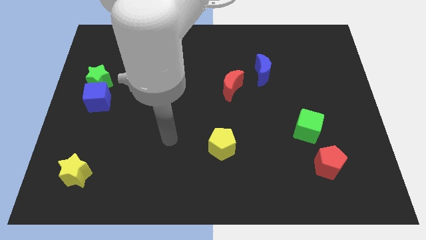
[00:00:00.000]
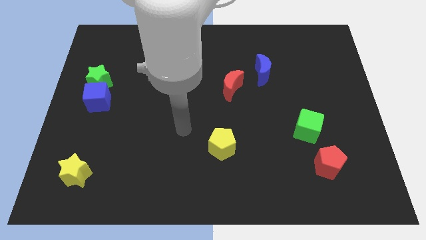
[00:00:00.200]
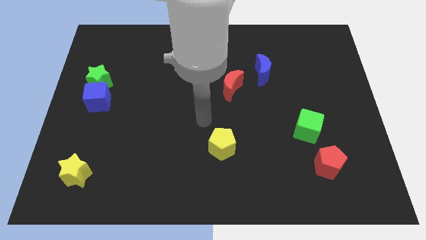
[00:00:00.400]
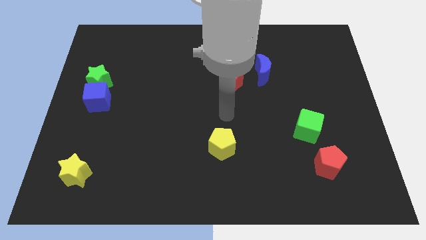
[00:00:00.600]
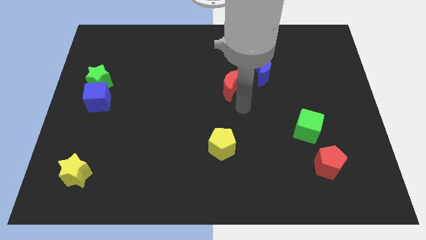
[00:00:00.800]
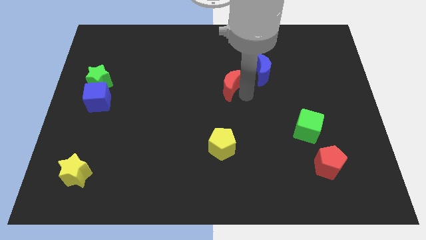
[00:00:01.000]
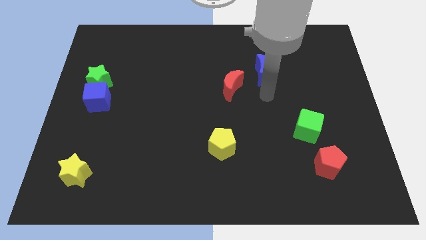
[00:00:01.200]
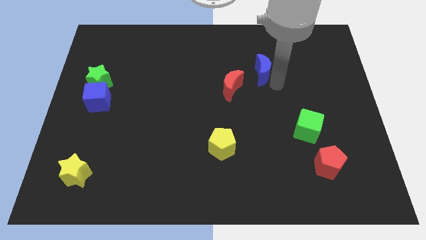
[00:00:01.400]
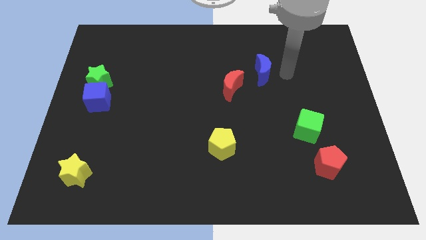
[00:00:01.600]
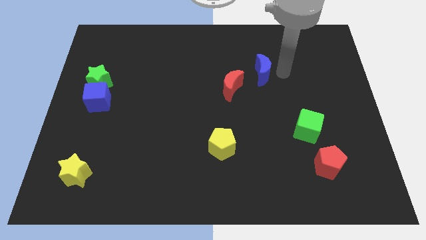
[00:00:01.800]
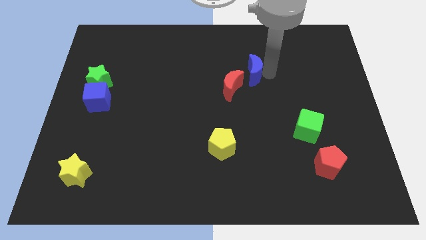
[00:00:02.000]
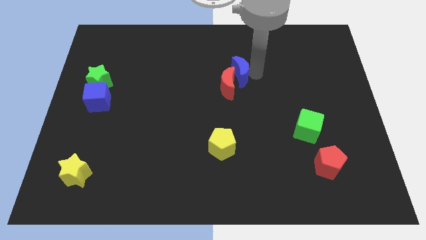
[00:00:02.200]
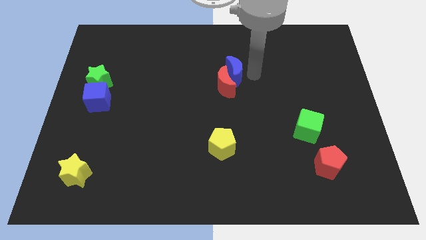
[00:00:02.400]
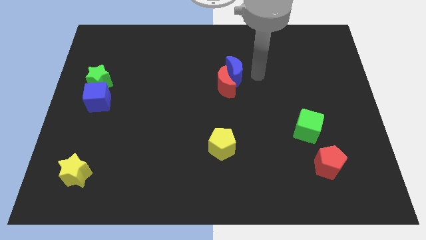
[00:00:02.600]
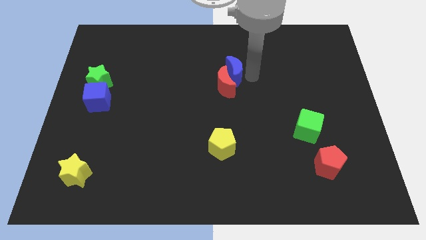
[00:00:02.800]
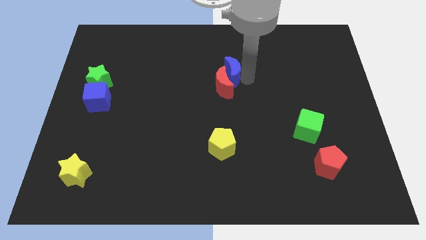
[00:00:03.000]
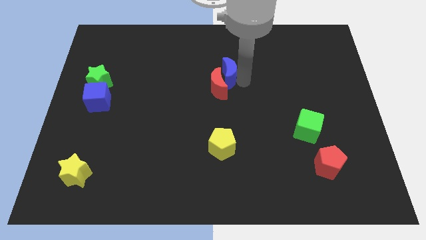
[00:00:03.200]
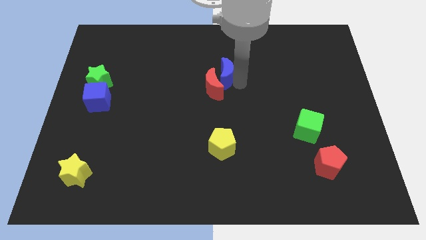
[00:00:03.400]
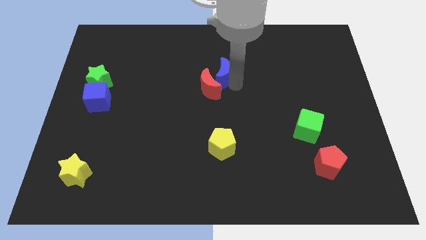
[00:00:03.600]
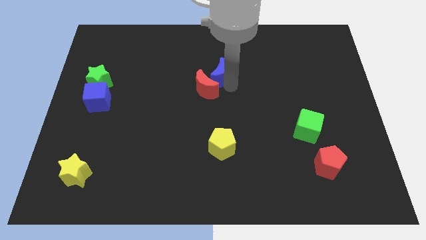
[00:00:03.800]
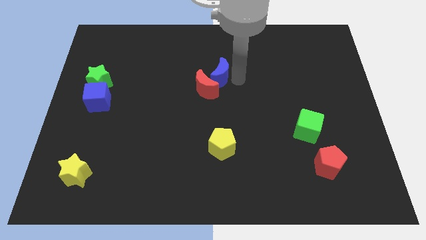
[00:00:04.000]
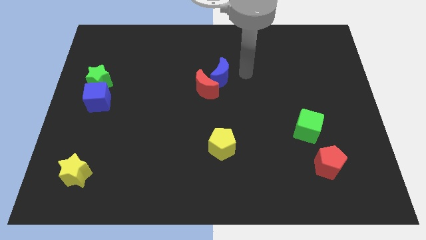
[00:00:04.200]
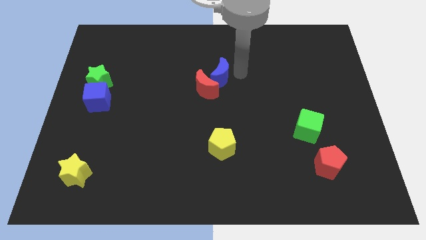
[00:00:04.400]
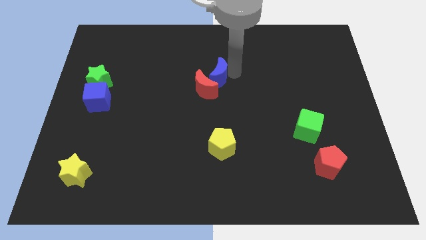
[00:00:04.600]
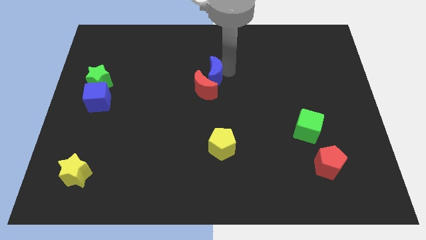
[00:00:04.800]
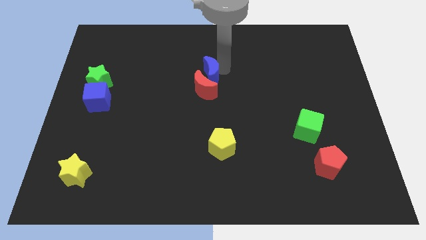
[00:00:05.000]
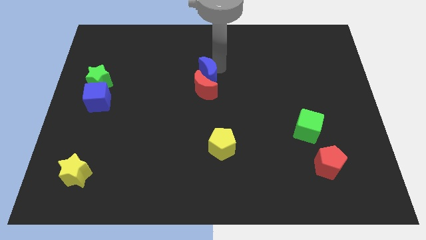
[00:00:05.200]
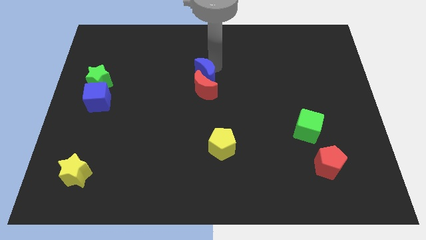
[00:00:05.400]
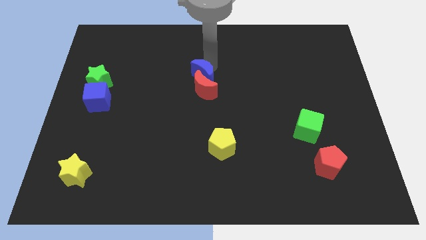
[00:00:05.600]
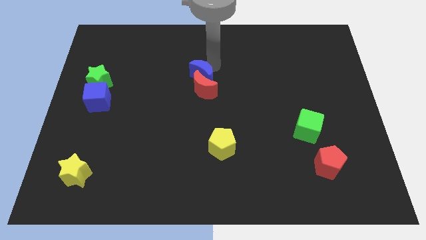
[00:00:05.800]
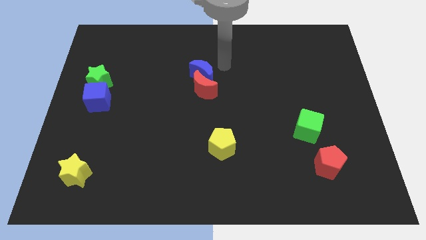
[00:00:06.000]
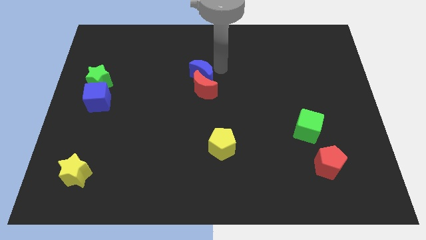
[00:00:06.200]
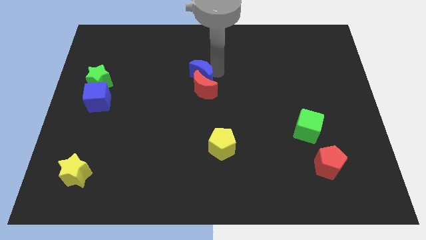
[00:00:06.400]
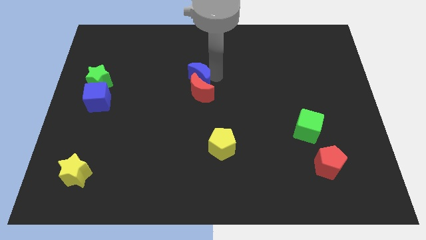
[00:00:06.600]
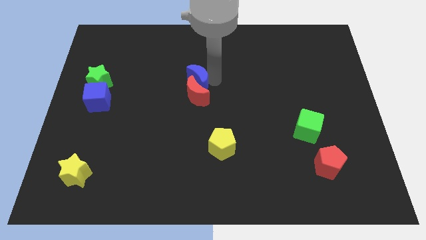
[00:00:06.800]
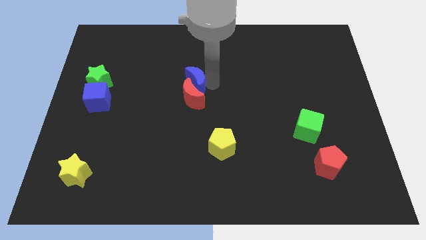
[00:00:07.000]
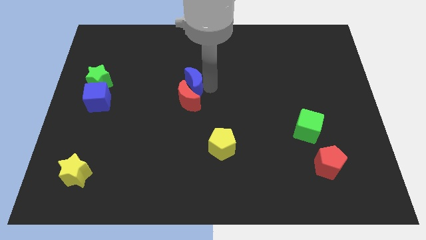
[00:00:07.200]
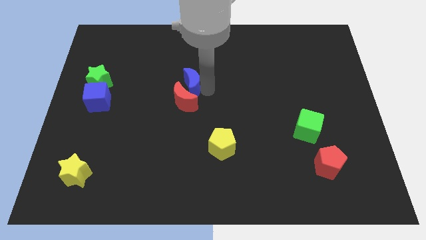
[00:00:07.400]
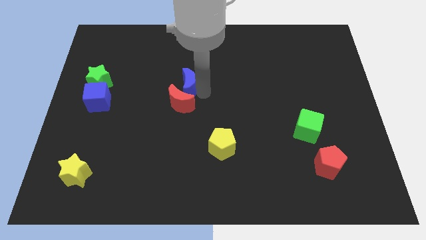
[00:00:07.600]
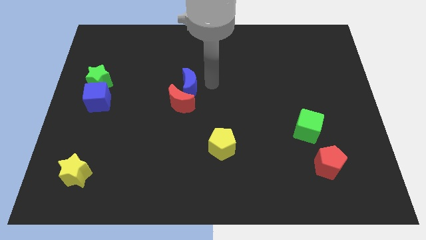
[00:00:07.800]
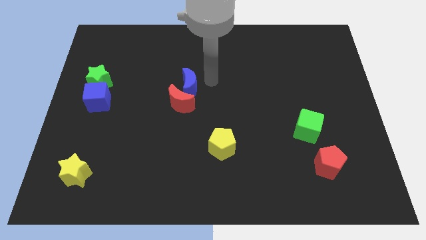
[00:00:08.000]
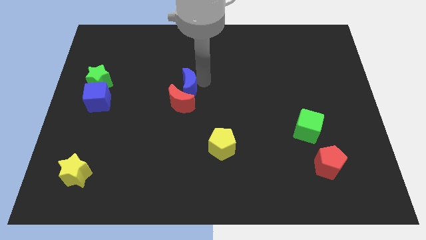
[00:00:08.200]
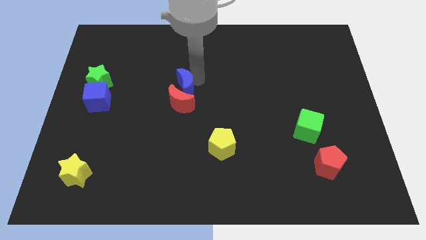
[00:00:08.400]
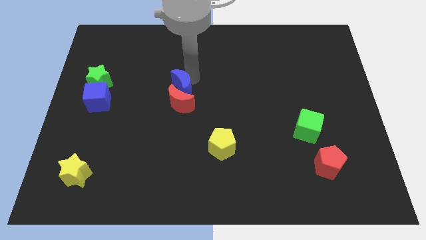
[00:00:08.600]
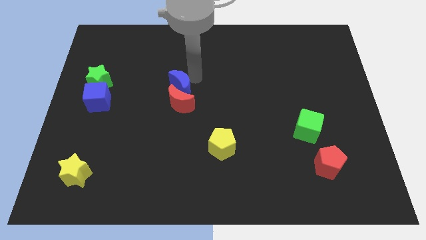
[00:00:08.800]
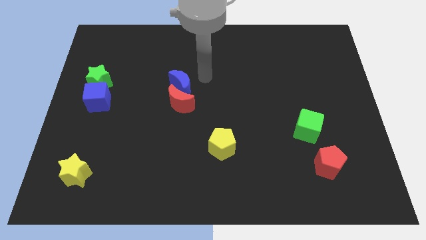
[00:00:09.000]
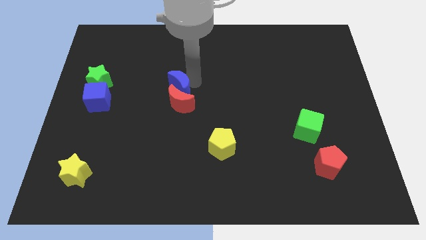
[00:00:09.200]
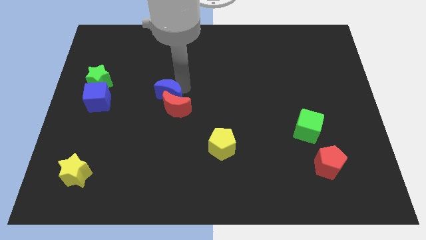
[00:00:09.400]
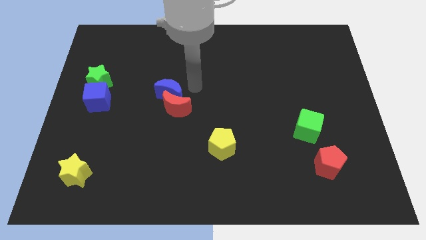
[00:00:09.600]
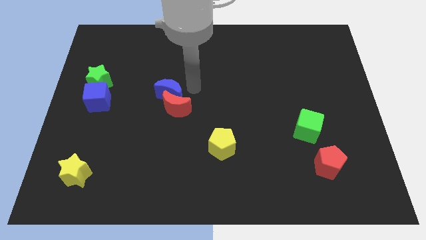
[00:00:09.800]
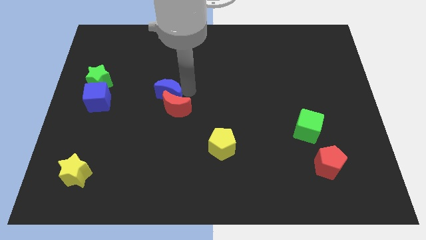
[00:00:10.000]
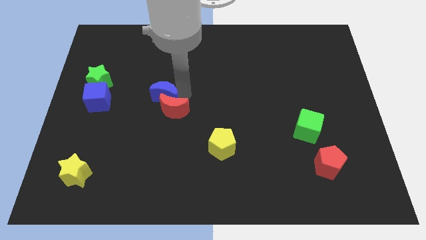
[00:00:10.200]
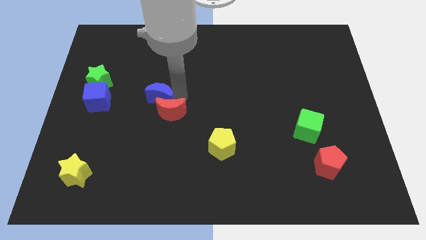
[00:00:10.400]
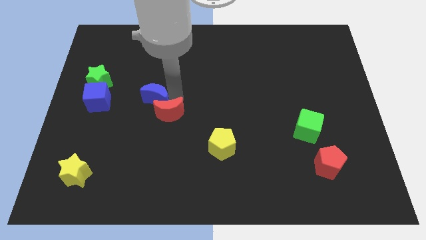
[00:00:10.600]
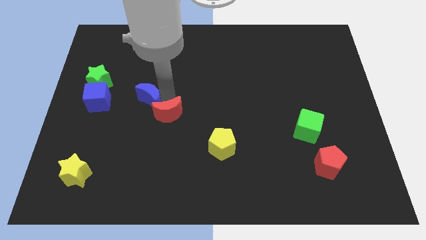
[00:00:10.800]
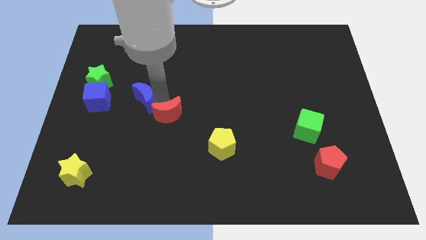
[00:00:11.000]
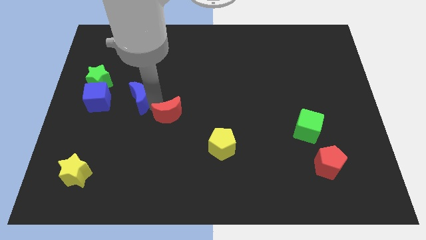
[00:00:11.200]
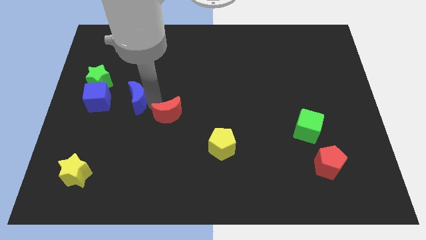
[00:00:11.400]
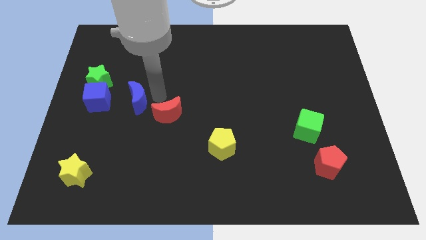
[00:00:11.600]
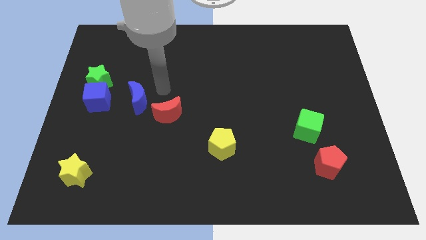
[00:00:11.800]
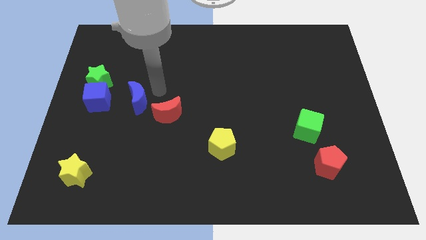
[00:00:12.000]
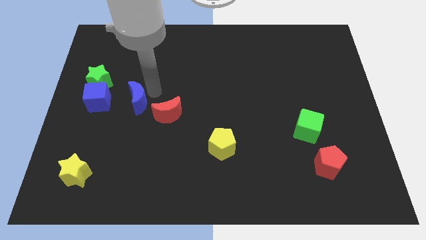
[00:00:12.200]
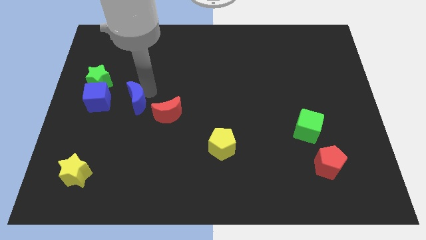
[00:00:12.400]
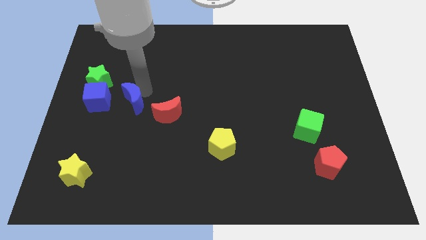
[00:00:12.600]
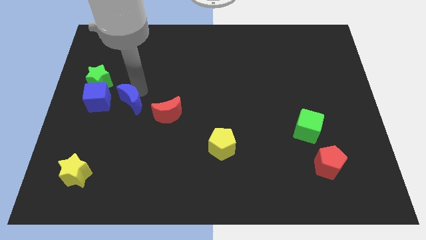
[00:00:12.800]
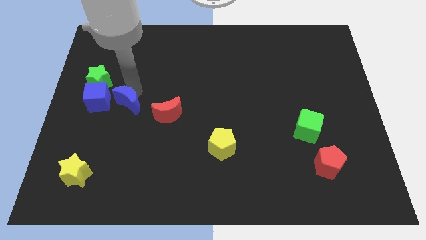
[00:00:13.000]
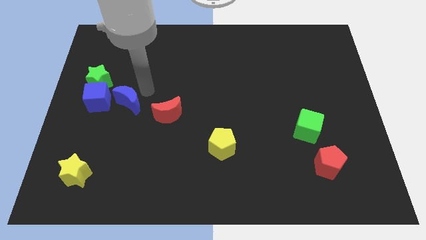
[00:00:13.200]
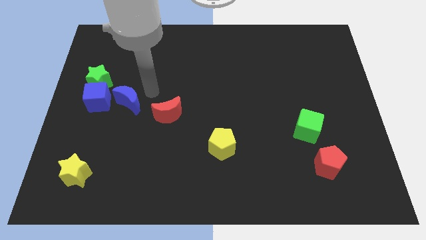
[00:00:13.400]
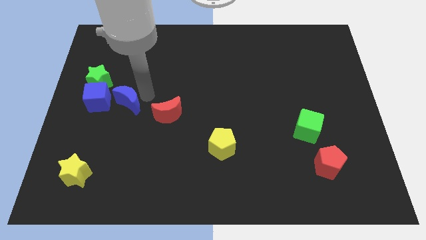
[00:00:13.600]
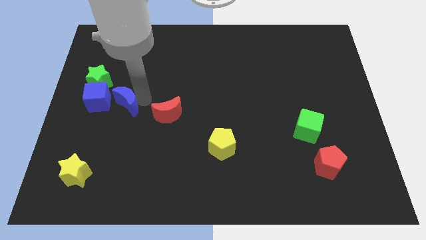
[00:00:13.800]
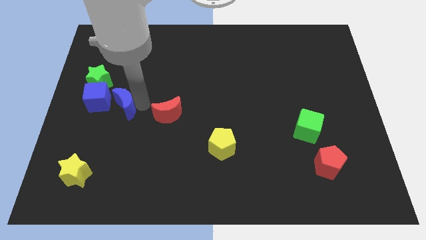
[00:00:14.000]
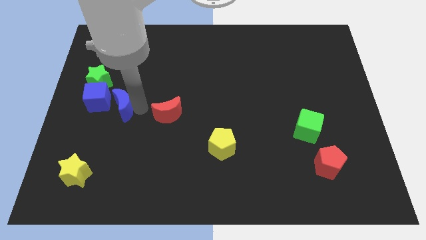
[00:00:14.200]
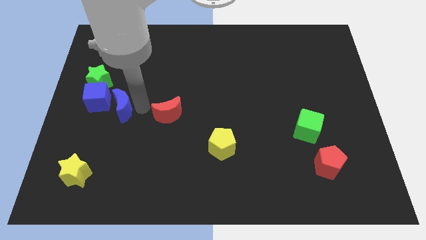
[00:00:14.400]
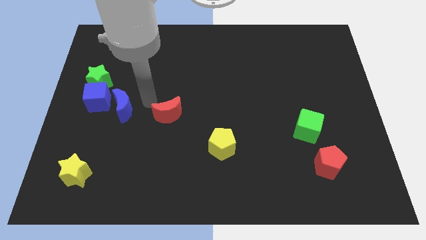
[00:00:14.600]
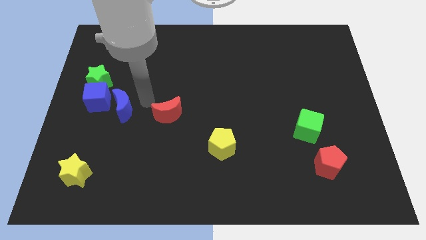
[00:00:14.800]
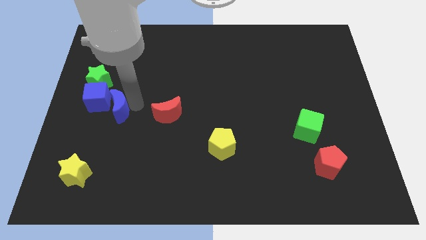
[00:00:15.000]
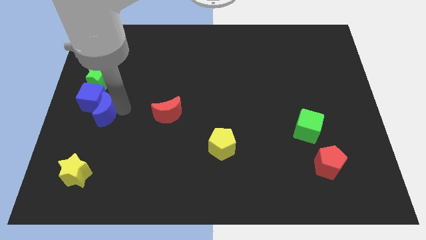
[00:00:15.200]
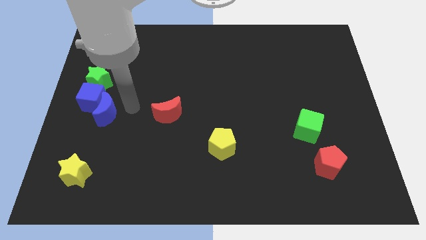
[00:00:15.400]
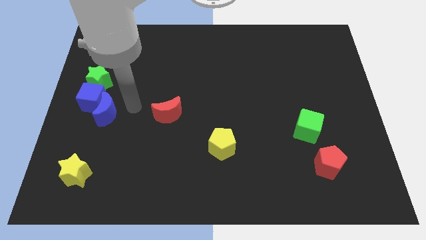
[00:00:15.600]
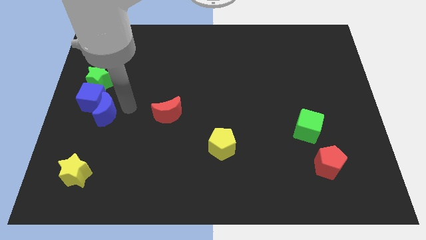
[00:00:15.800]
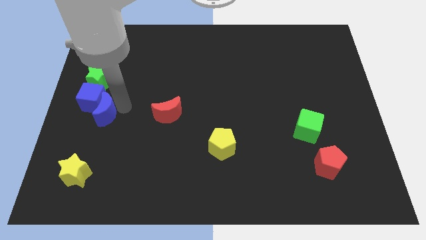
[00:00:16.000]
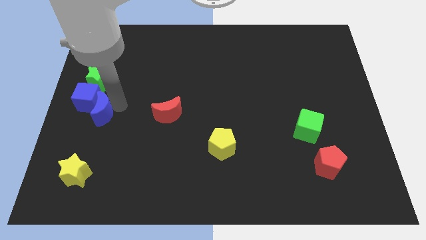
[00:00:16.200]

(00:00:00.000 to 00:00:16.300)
move the blue moon to the left side
